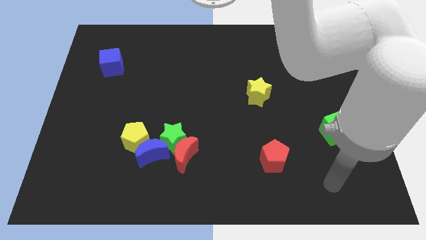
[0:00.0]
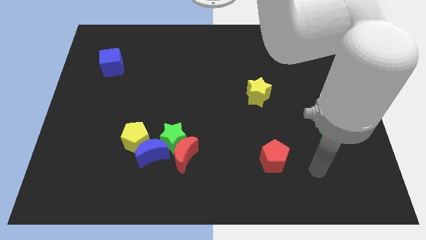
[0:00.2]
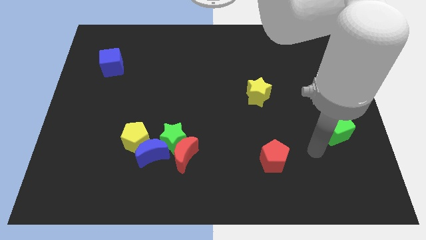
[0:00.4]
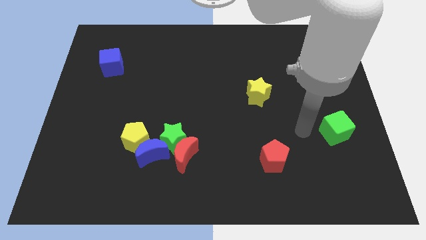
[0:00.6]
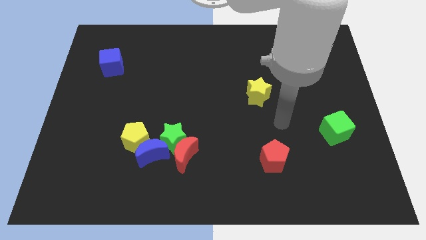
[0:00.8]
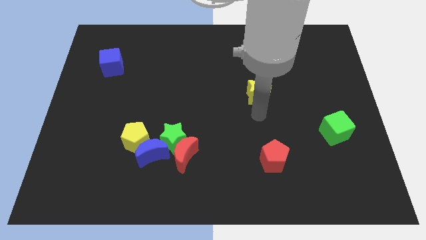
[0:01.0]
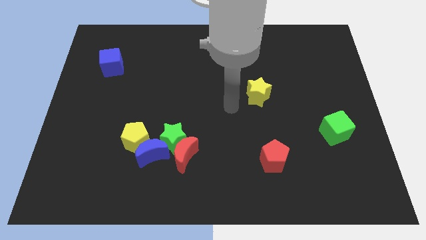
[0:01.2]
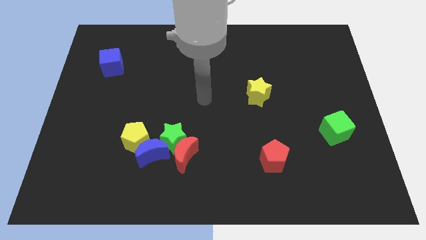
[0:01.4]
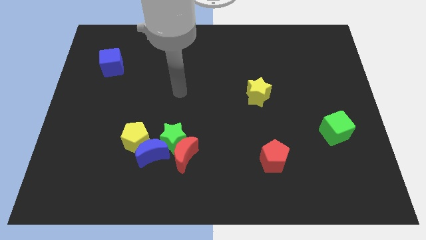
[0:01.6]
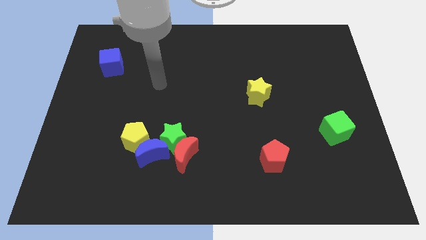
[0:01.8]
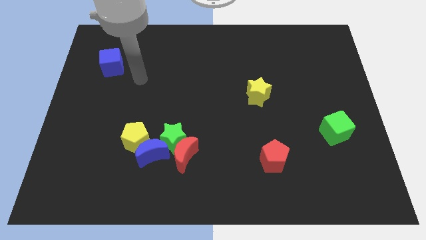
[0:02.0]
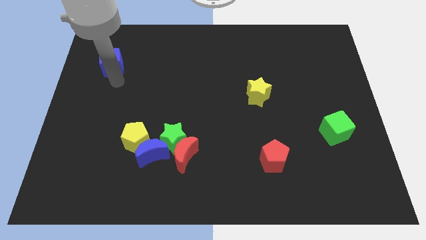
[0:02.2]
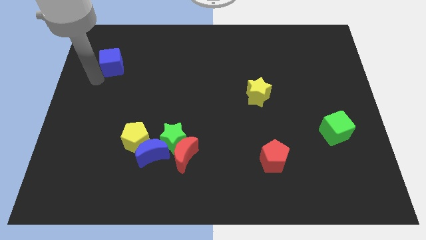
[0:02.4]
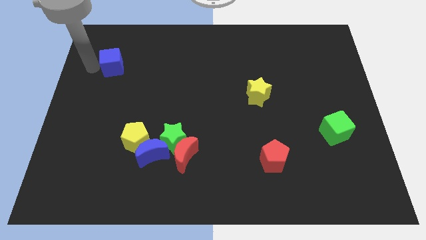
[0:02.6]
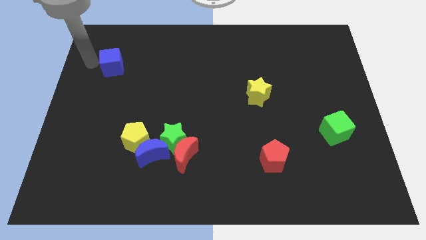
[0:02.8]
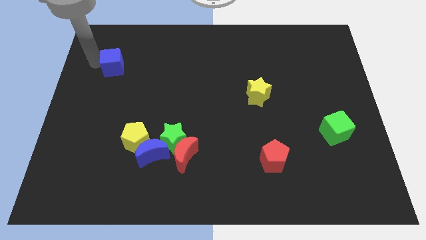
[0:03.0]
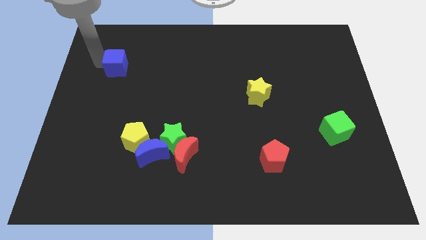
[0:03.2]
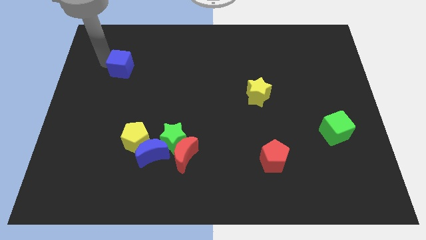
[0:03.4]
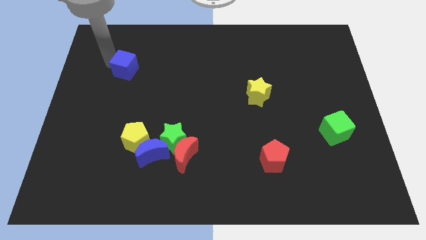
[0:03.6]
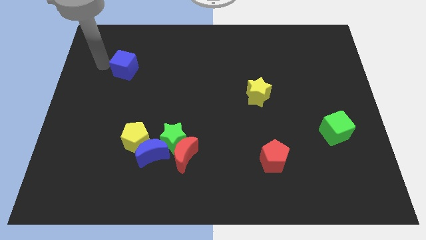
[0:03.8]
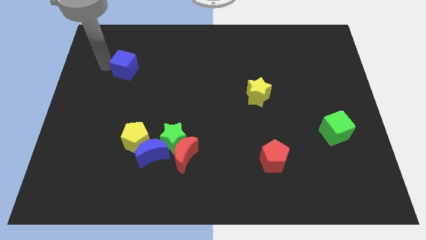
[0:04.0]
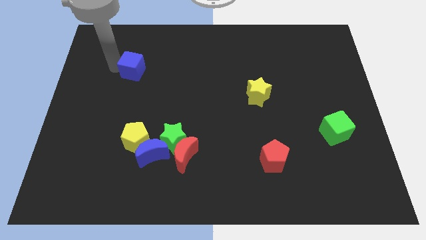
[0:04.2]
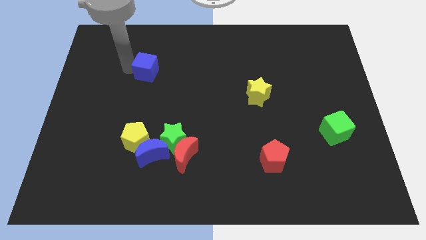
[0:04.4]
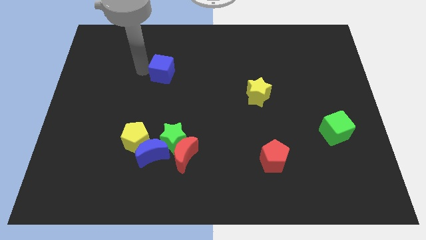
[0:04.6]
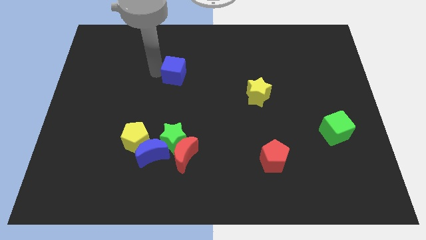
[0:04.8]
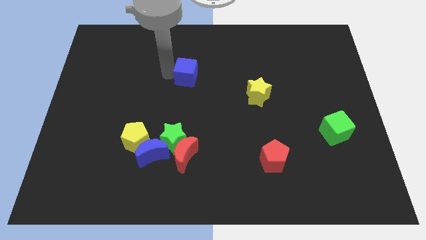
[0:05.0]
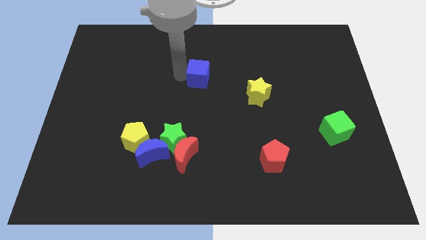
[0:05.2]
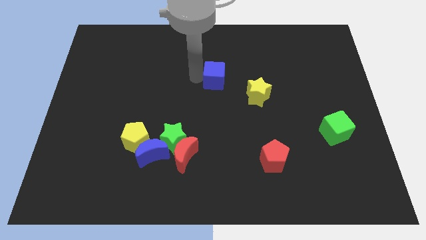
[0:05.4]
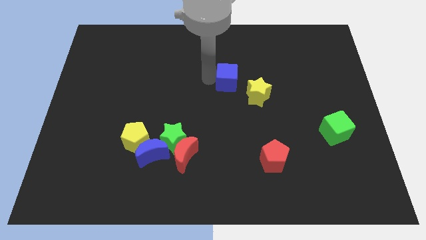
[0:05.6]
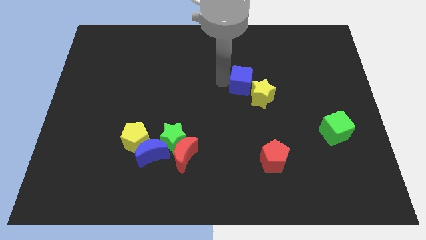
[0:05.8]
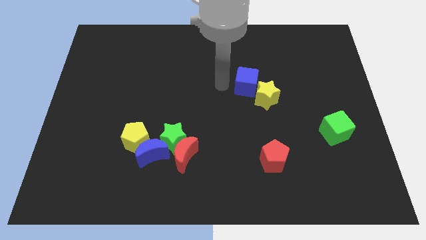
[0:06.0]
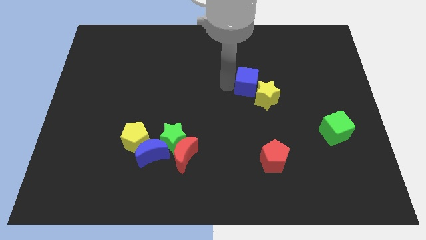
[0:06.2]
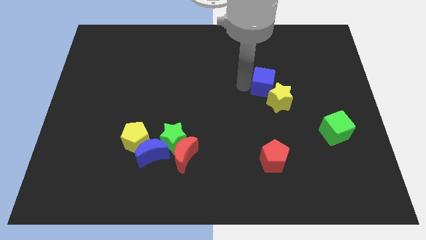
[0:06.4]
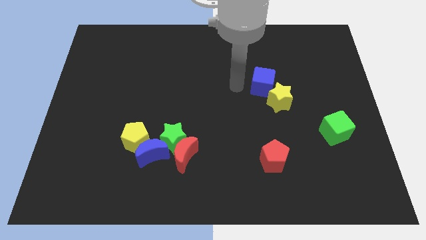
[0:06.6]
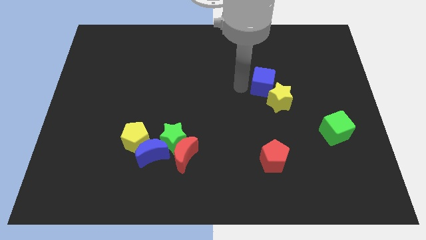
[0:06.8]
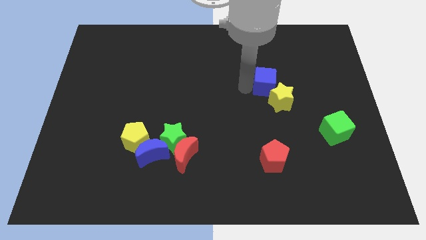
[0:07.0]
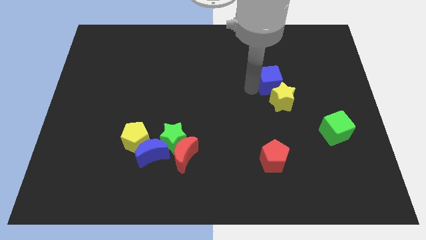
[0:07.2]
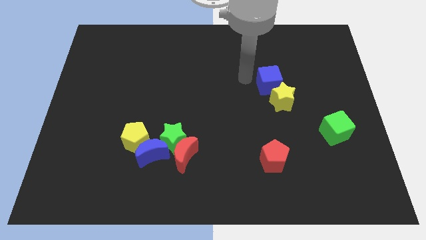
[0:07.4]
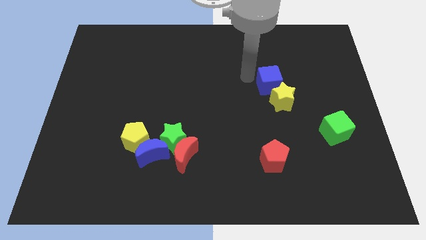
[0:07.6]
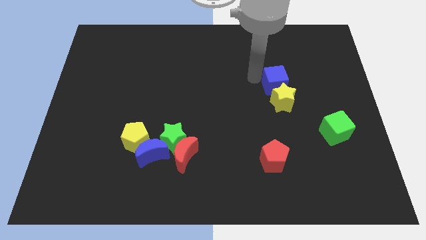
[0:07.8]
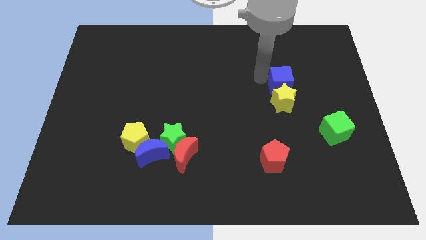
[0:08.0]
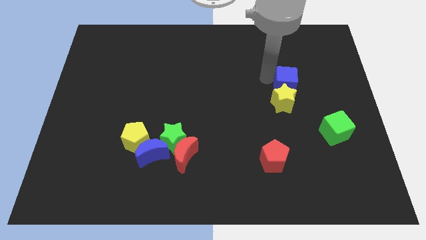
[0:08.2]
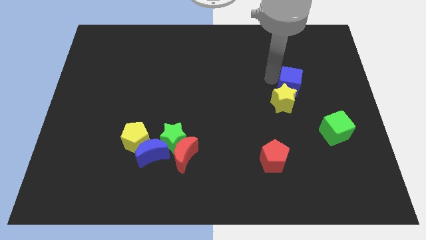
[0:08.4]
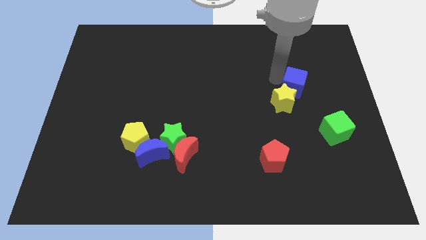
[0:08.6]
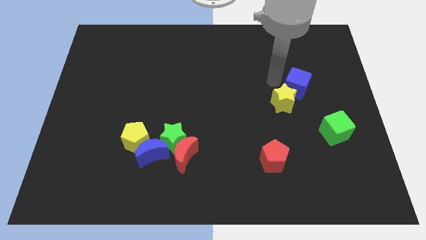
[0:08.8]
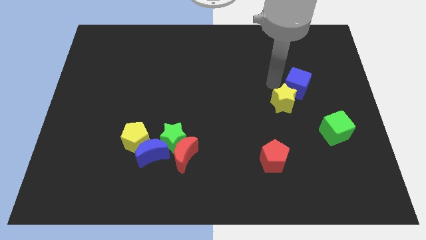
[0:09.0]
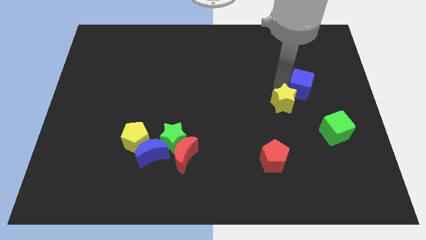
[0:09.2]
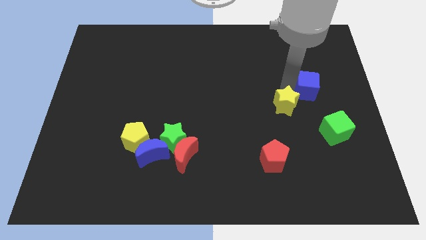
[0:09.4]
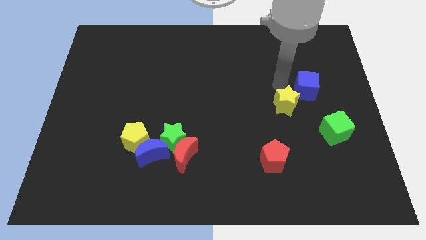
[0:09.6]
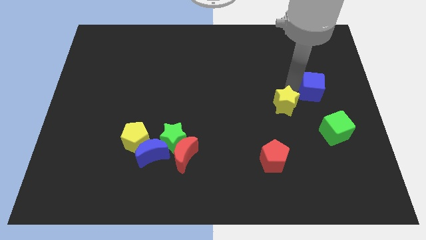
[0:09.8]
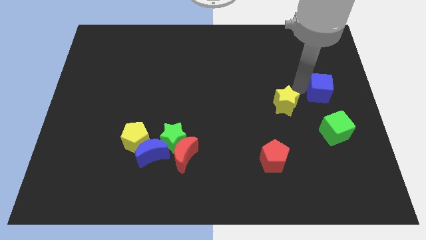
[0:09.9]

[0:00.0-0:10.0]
slide the blue cube to the center right

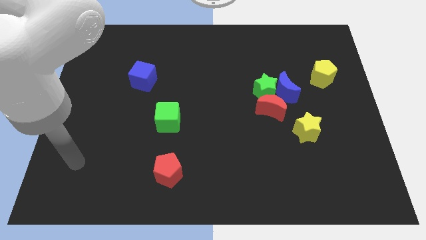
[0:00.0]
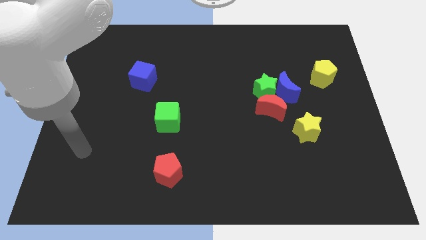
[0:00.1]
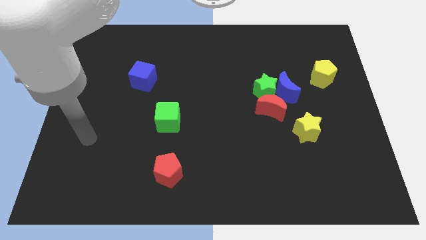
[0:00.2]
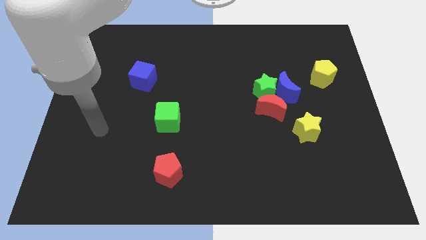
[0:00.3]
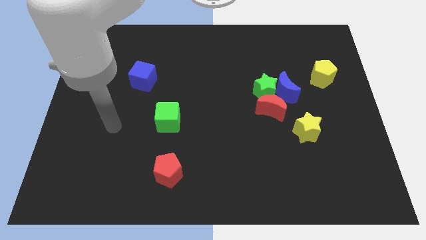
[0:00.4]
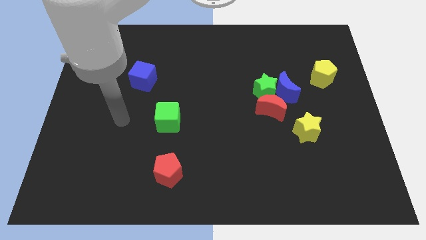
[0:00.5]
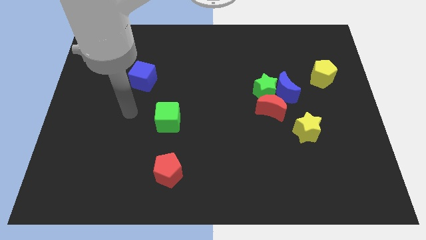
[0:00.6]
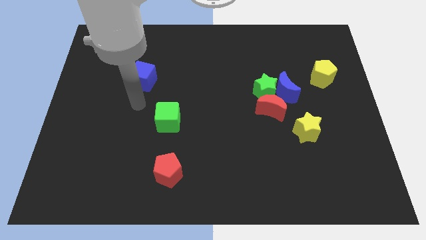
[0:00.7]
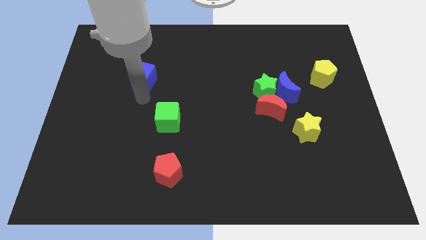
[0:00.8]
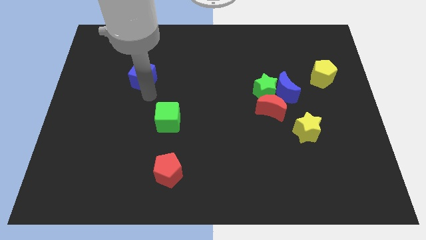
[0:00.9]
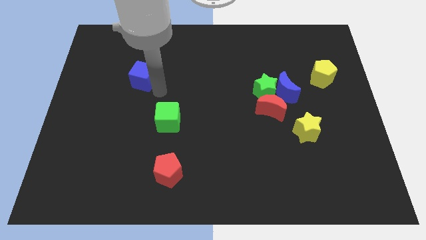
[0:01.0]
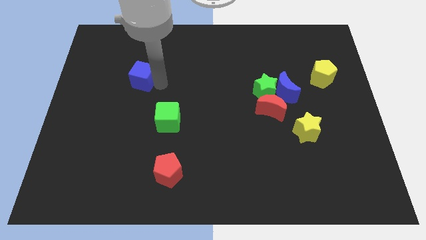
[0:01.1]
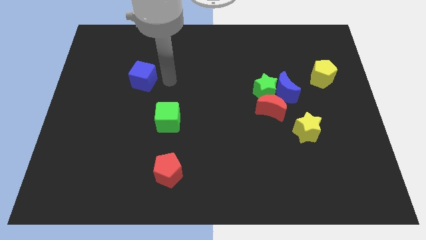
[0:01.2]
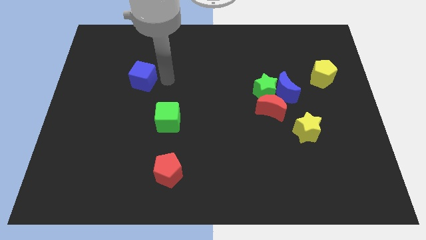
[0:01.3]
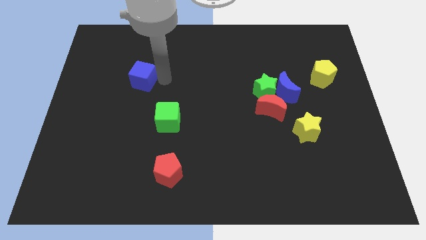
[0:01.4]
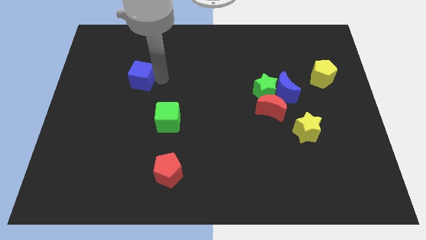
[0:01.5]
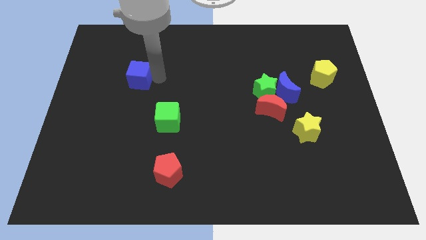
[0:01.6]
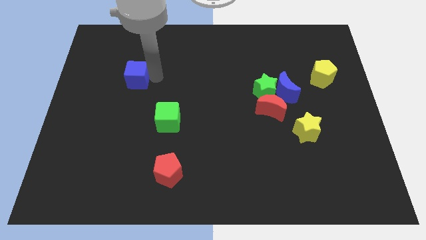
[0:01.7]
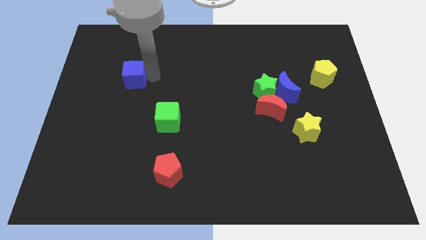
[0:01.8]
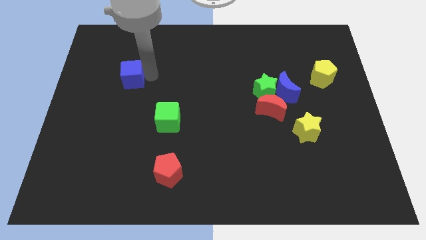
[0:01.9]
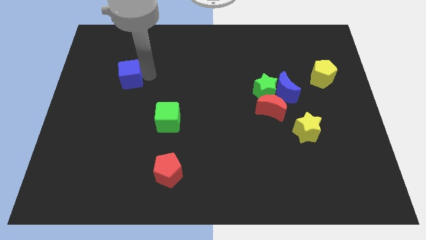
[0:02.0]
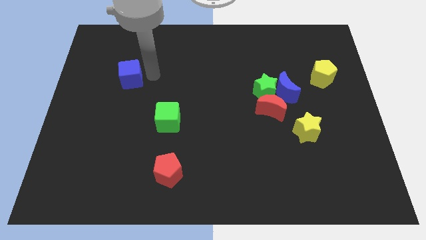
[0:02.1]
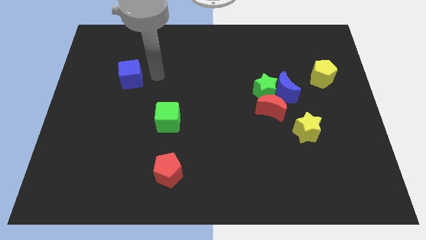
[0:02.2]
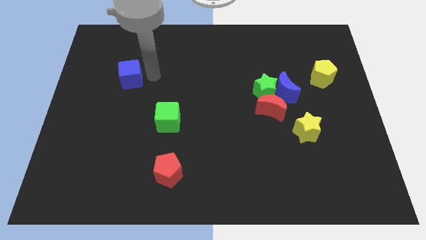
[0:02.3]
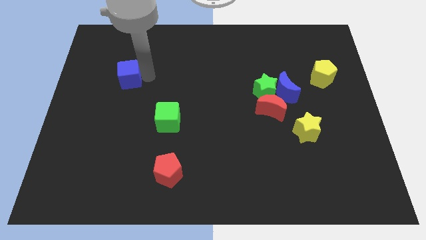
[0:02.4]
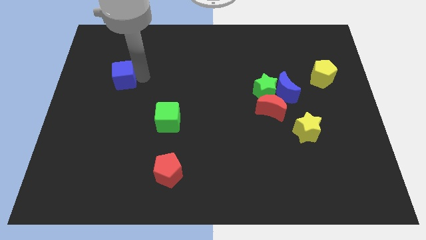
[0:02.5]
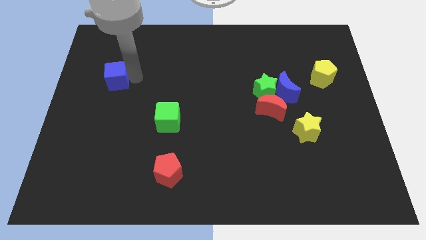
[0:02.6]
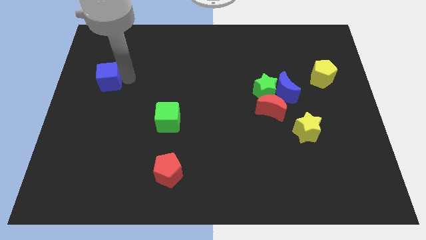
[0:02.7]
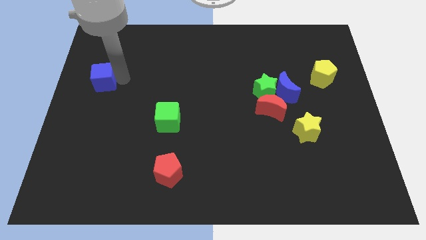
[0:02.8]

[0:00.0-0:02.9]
move the blue cube to the left side of the board
